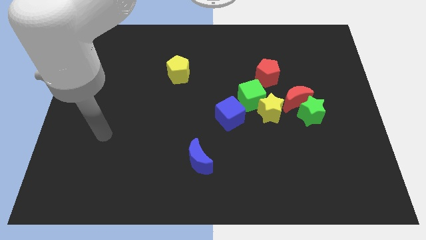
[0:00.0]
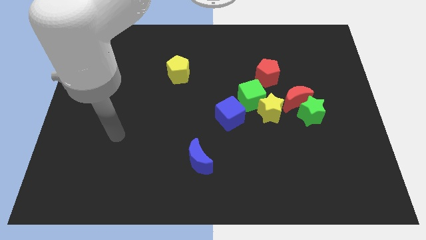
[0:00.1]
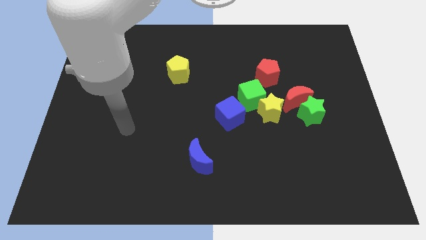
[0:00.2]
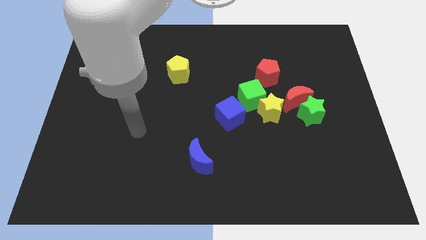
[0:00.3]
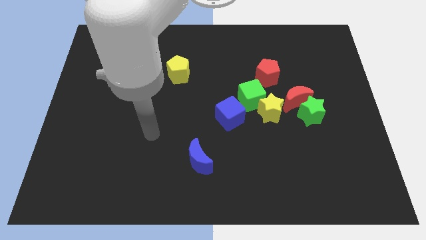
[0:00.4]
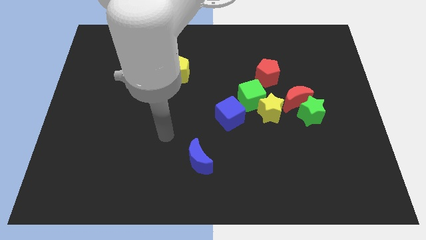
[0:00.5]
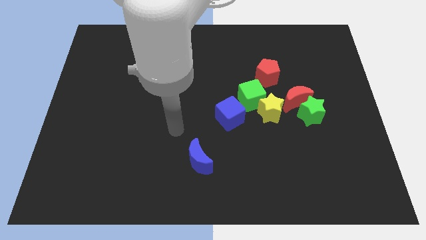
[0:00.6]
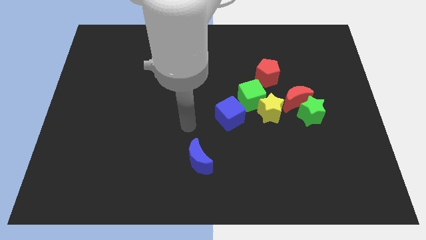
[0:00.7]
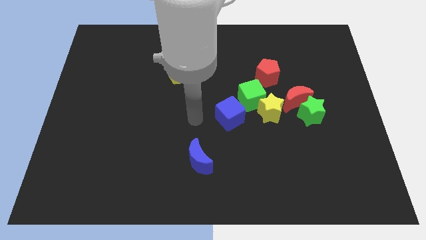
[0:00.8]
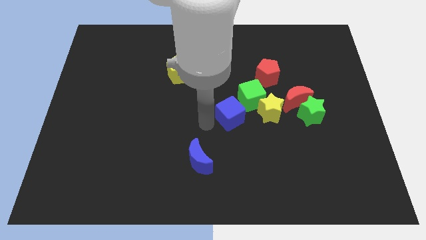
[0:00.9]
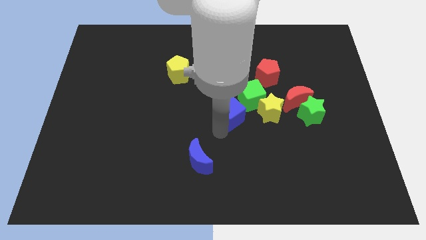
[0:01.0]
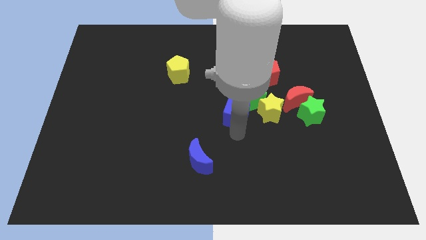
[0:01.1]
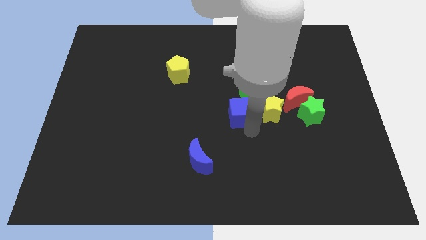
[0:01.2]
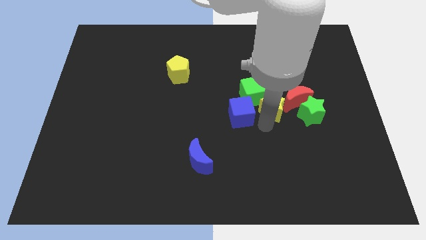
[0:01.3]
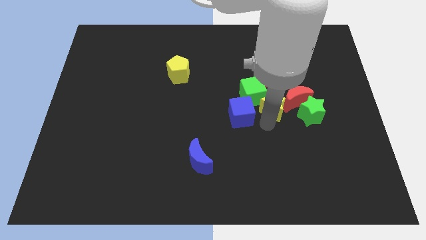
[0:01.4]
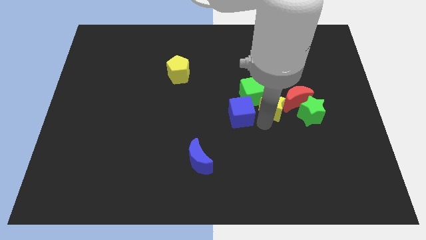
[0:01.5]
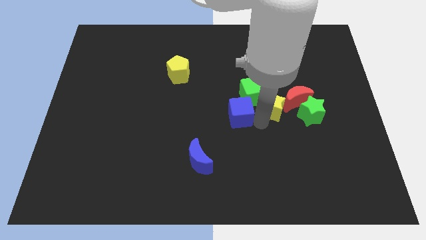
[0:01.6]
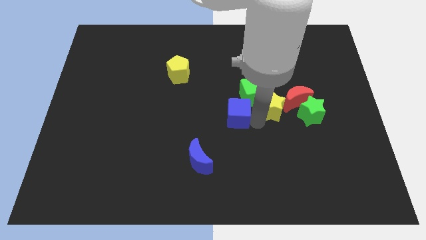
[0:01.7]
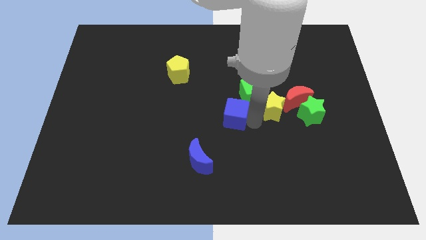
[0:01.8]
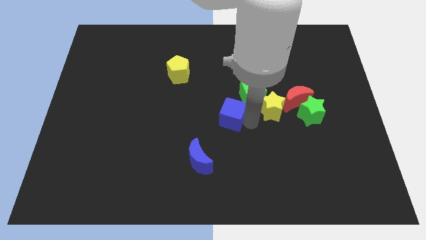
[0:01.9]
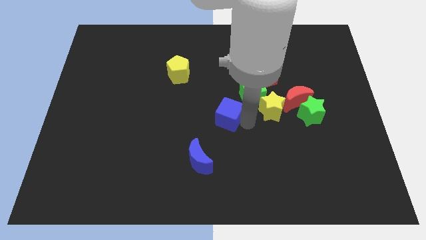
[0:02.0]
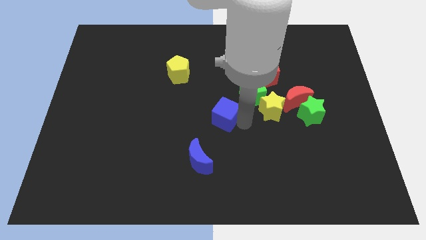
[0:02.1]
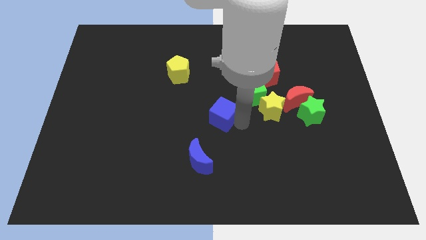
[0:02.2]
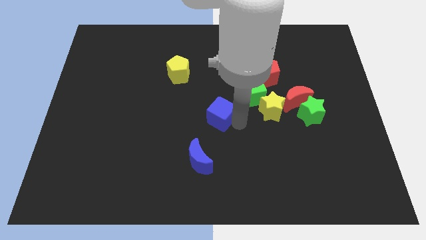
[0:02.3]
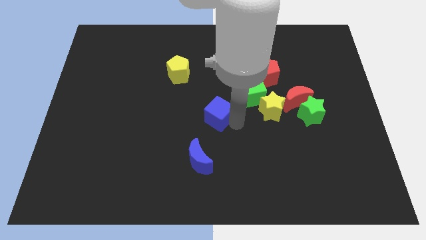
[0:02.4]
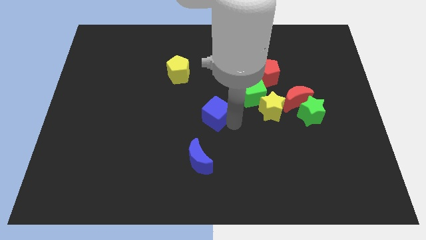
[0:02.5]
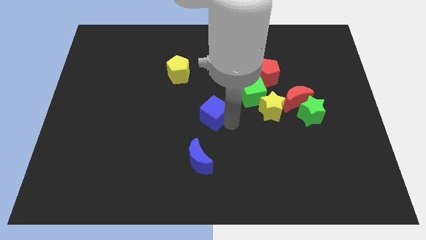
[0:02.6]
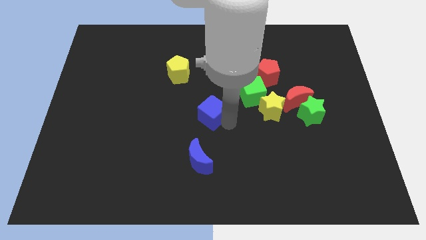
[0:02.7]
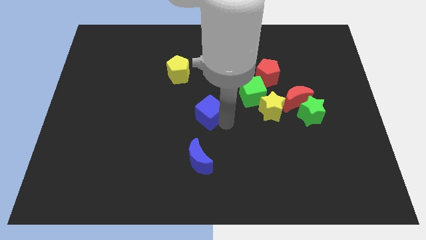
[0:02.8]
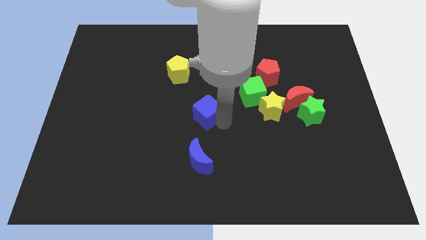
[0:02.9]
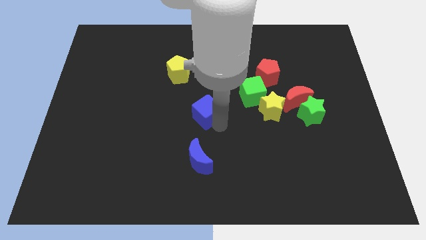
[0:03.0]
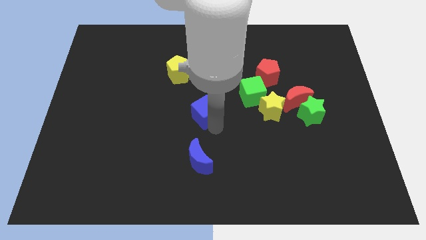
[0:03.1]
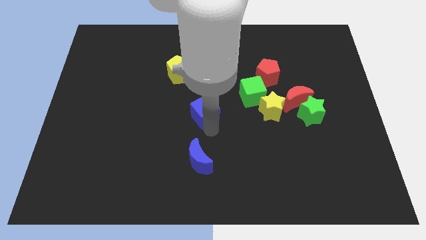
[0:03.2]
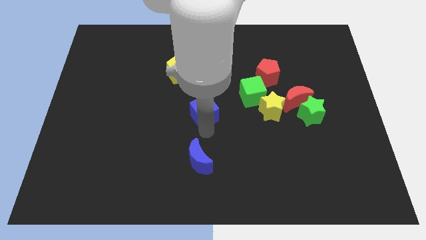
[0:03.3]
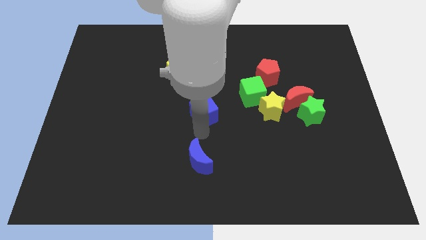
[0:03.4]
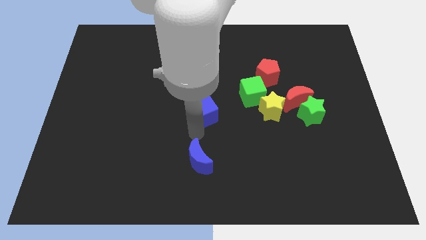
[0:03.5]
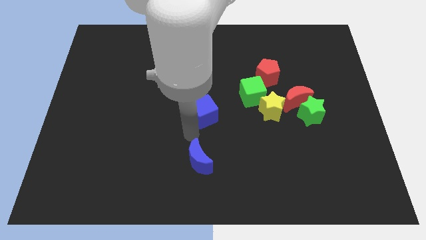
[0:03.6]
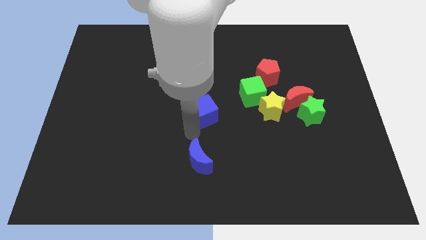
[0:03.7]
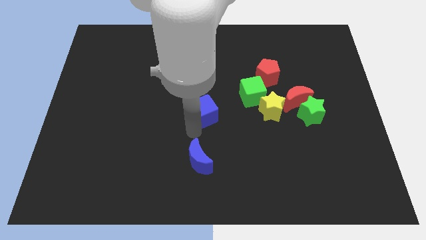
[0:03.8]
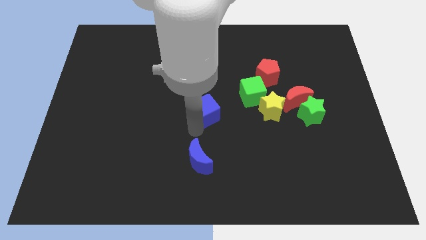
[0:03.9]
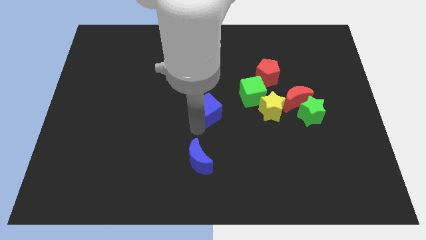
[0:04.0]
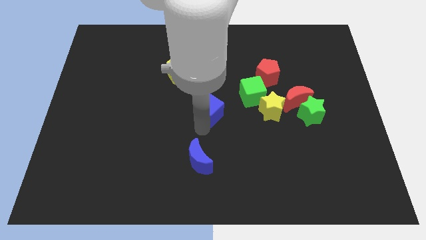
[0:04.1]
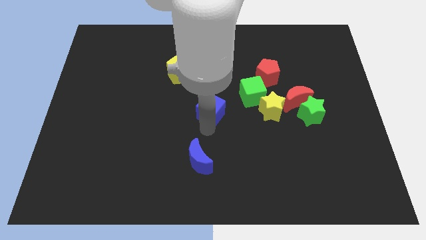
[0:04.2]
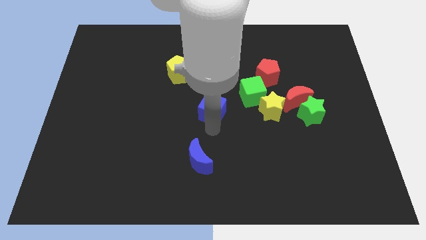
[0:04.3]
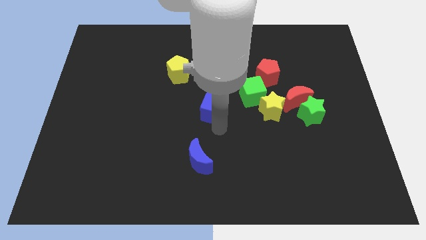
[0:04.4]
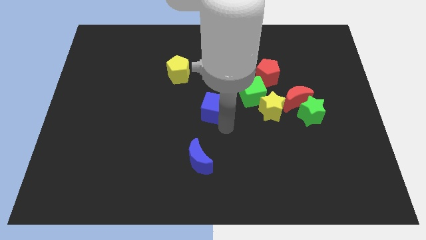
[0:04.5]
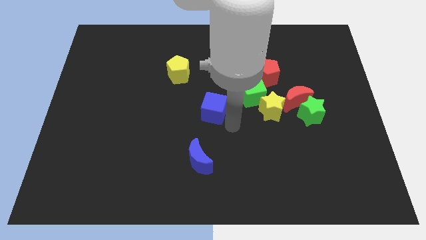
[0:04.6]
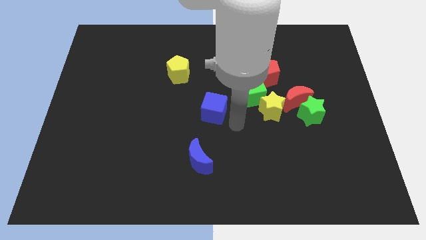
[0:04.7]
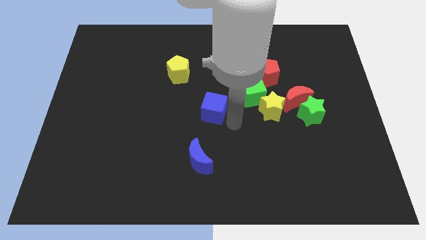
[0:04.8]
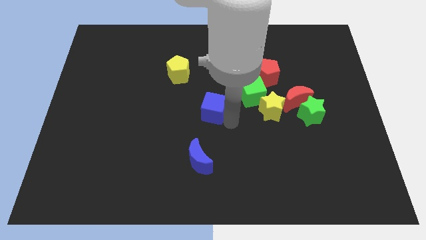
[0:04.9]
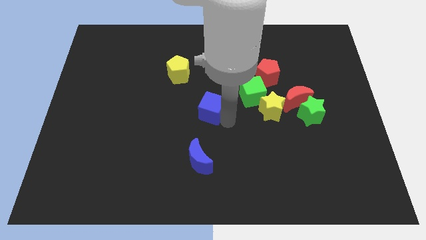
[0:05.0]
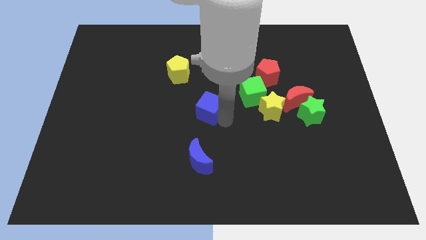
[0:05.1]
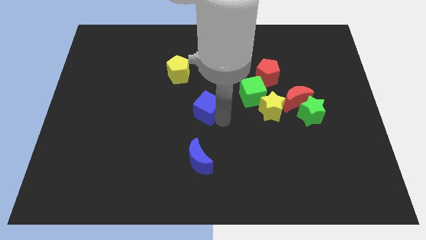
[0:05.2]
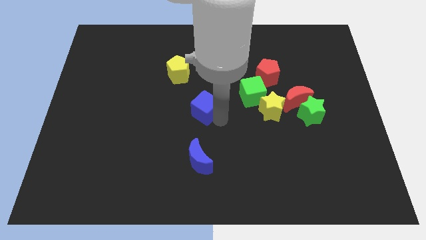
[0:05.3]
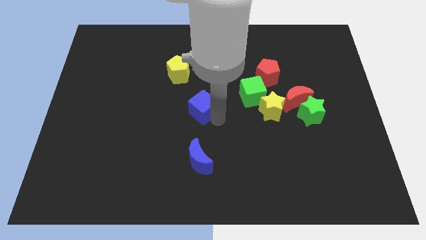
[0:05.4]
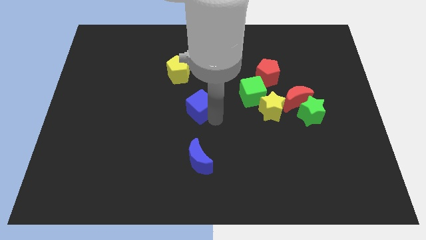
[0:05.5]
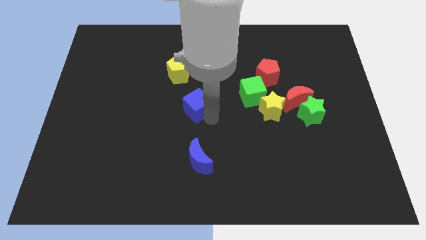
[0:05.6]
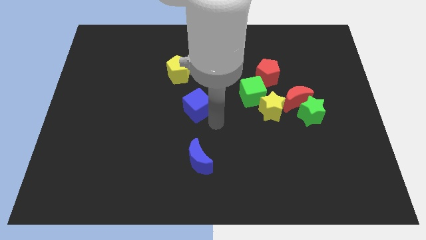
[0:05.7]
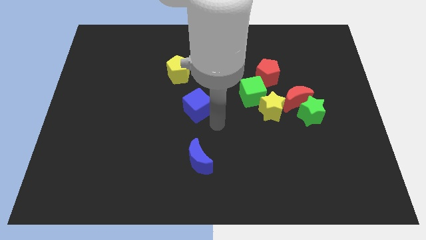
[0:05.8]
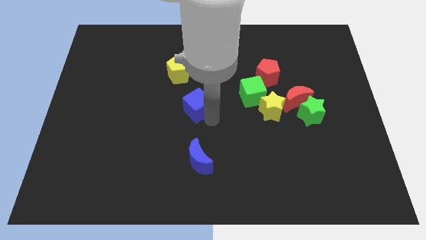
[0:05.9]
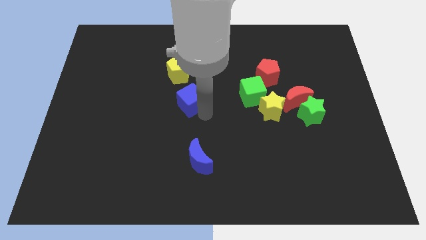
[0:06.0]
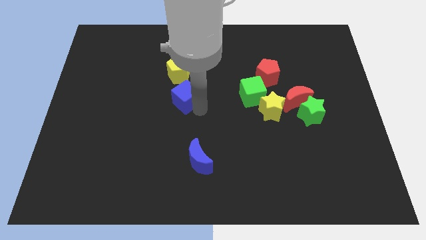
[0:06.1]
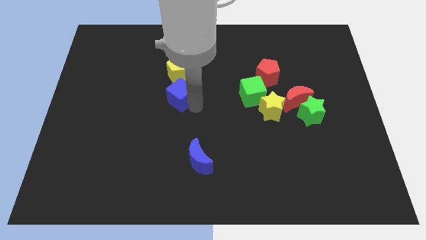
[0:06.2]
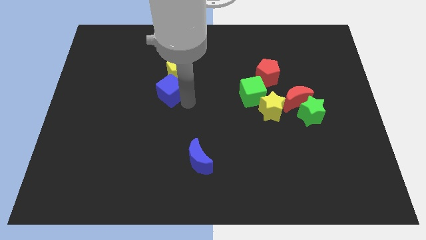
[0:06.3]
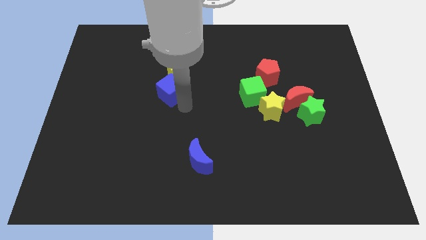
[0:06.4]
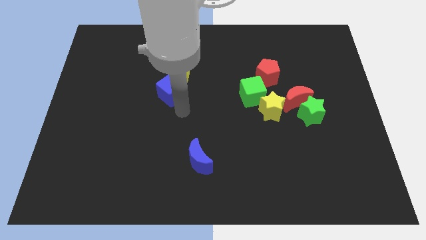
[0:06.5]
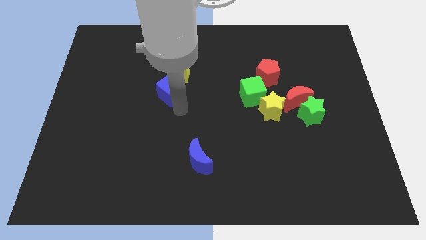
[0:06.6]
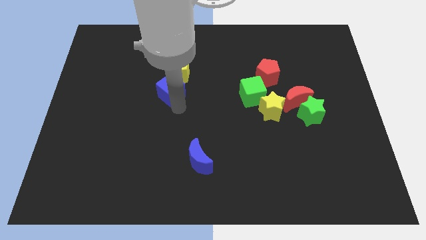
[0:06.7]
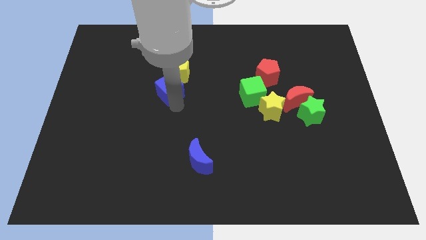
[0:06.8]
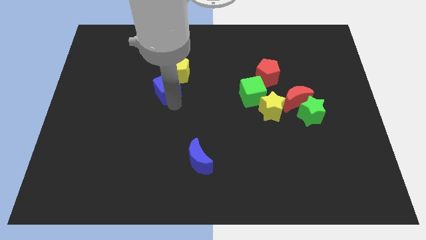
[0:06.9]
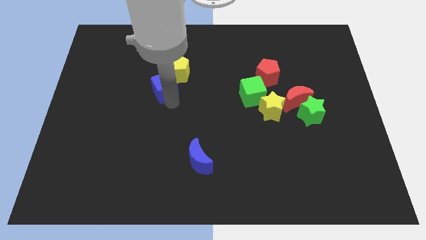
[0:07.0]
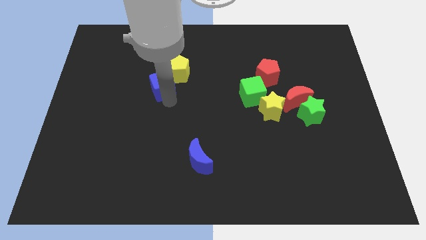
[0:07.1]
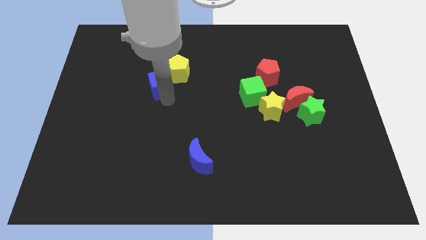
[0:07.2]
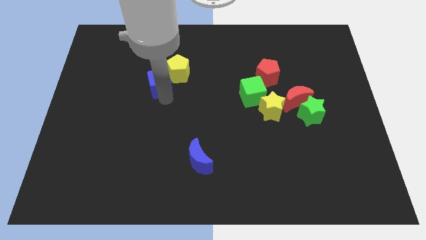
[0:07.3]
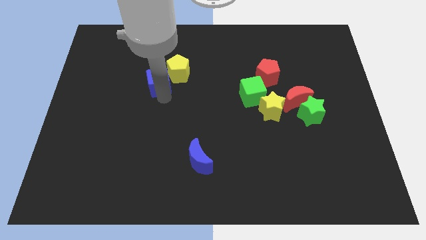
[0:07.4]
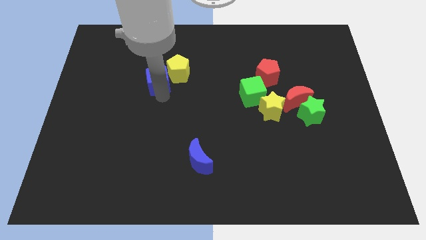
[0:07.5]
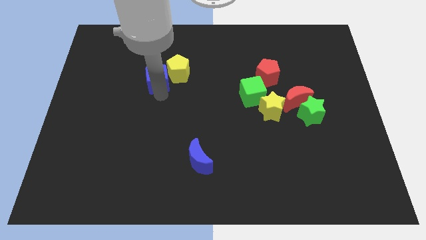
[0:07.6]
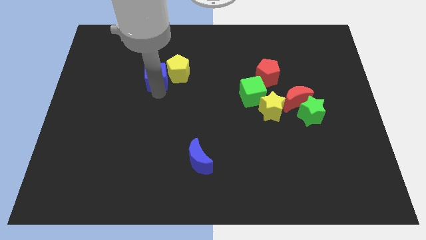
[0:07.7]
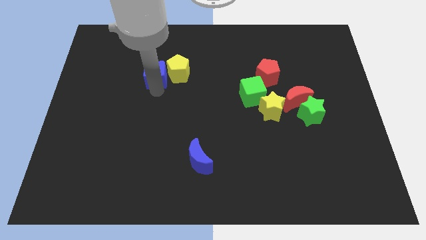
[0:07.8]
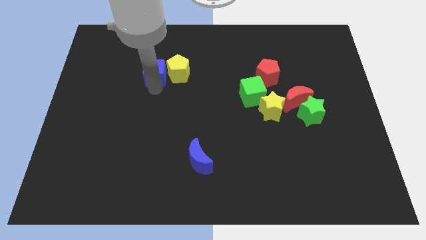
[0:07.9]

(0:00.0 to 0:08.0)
push the blue cube to the top left of the yellow pentagon
